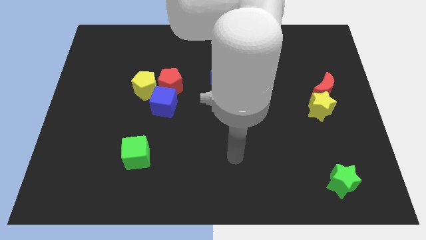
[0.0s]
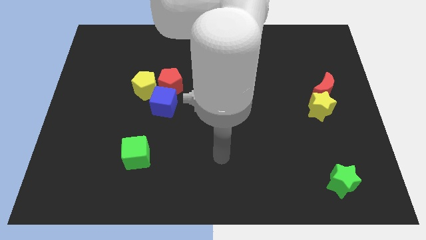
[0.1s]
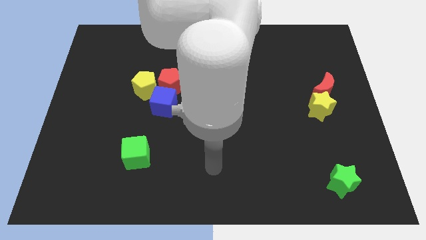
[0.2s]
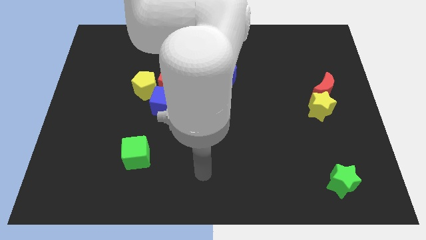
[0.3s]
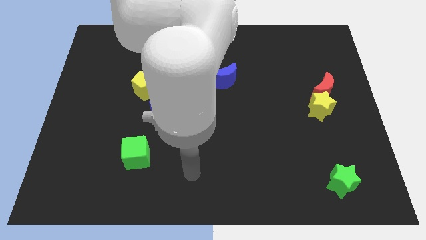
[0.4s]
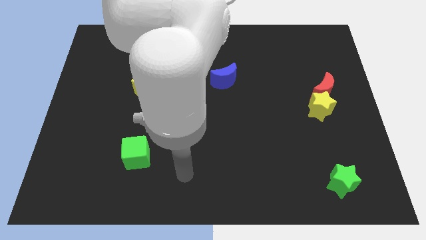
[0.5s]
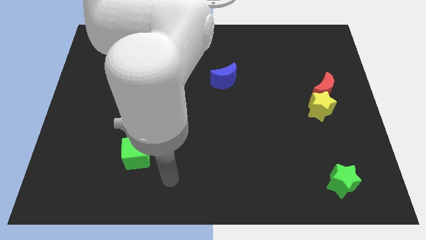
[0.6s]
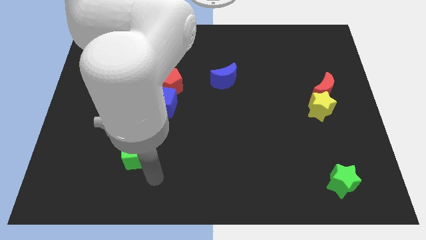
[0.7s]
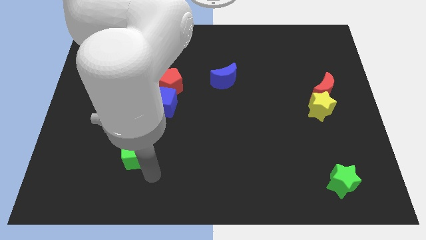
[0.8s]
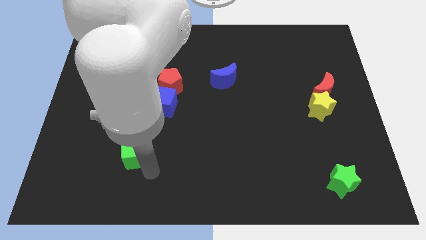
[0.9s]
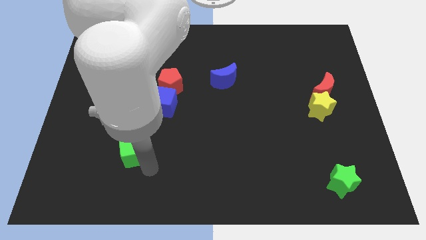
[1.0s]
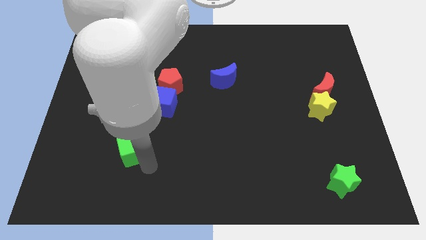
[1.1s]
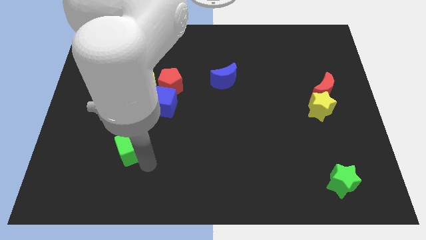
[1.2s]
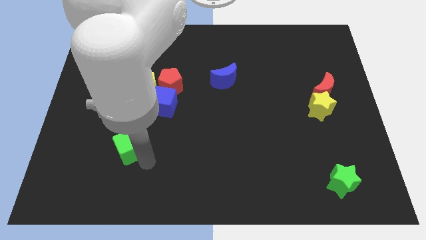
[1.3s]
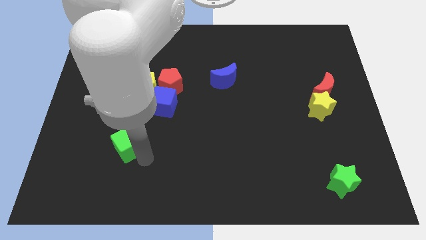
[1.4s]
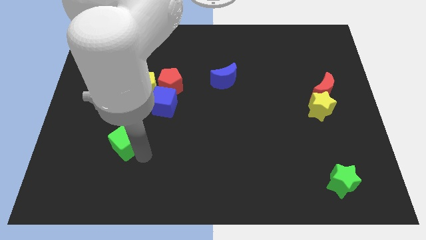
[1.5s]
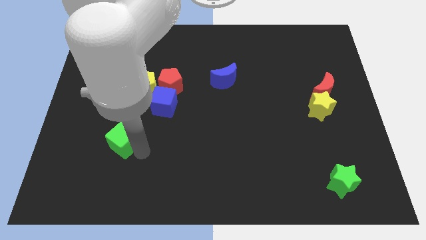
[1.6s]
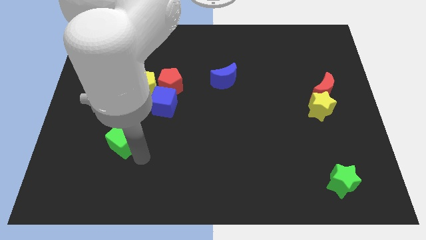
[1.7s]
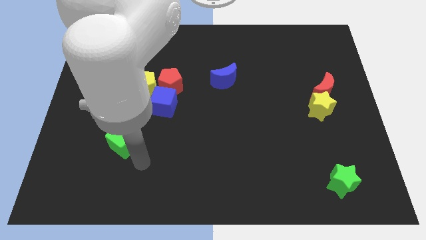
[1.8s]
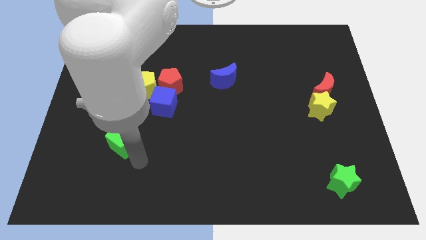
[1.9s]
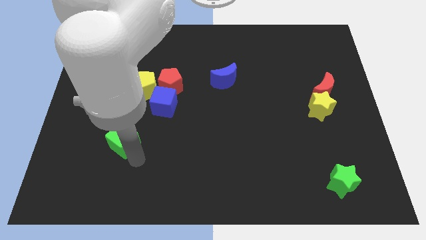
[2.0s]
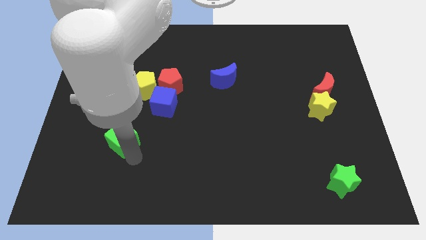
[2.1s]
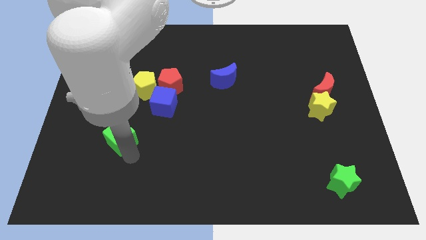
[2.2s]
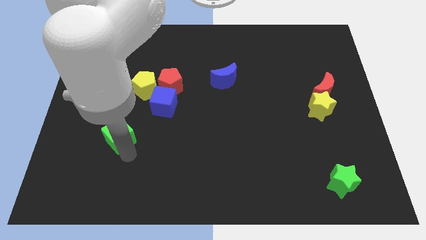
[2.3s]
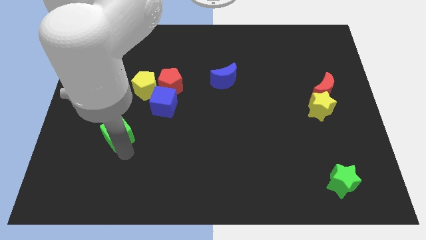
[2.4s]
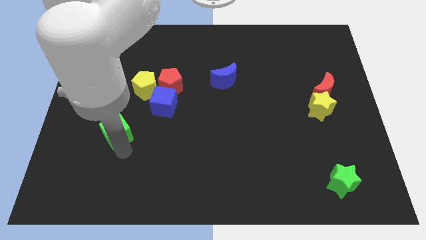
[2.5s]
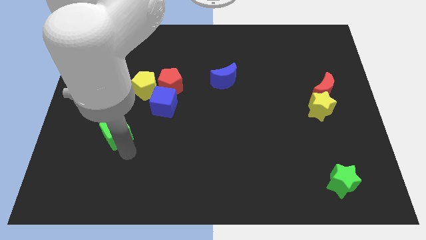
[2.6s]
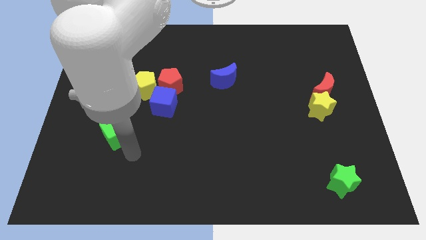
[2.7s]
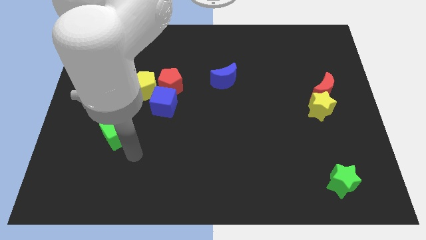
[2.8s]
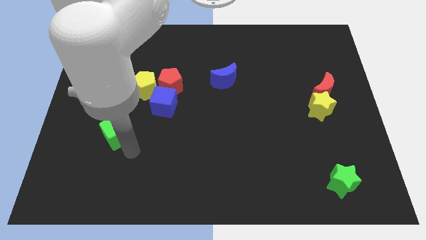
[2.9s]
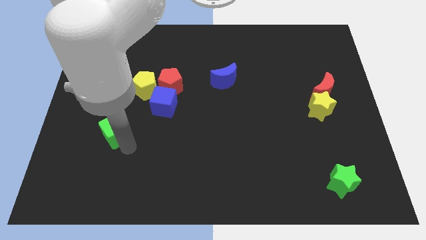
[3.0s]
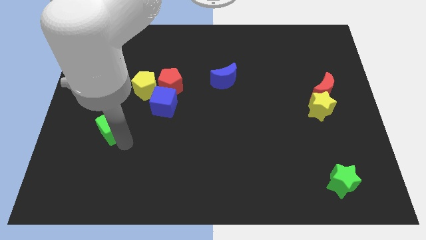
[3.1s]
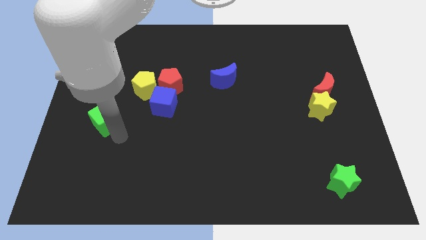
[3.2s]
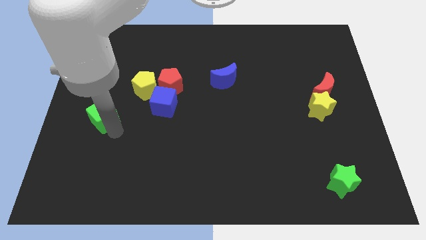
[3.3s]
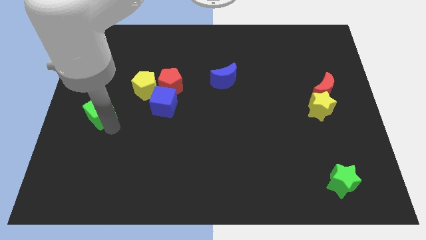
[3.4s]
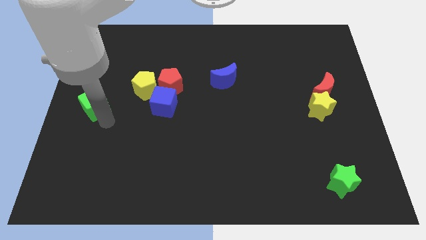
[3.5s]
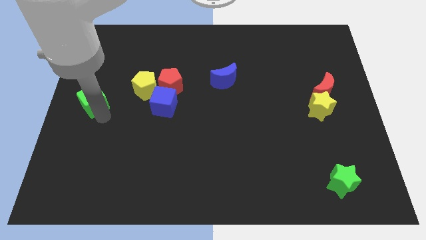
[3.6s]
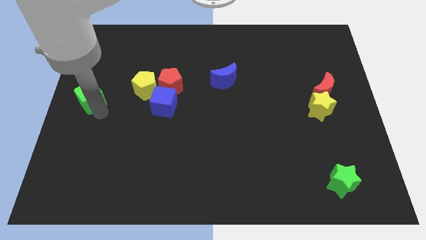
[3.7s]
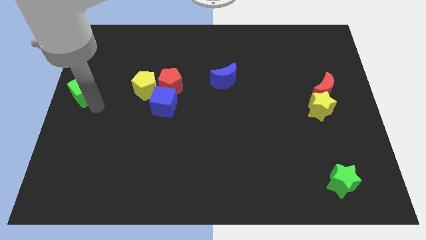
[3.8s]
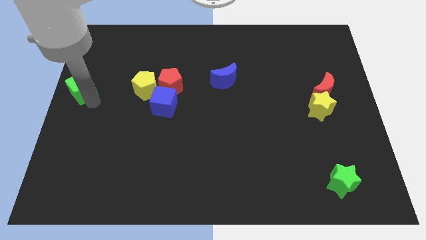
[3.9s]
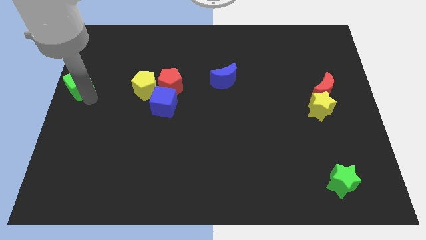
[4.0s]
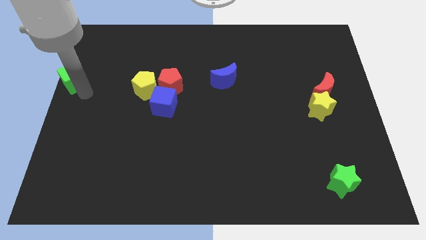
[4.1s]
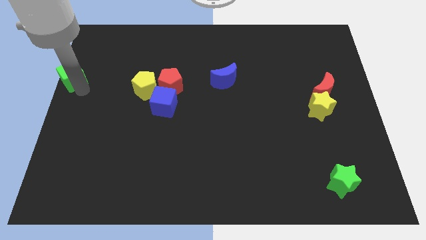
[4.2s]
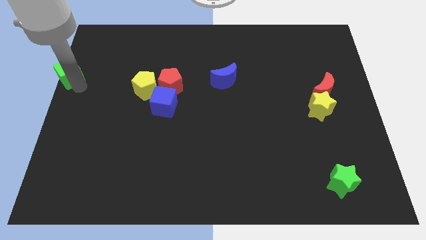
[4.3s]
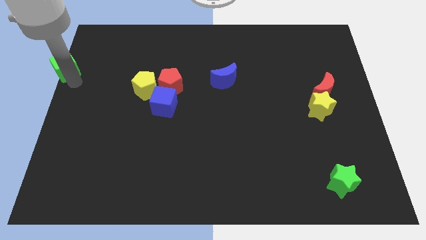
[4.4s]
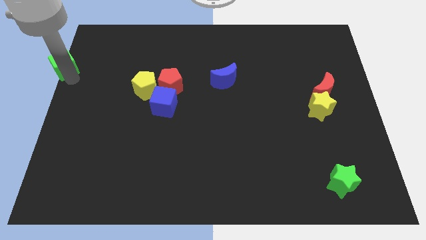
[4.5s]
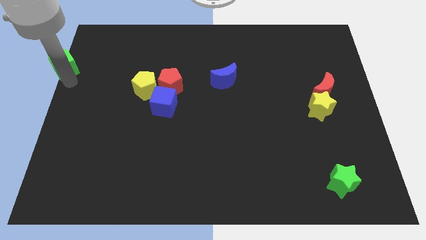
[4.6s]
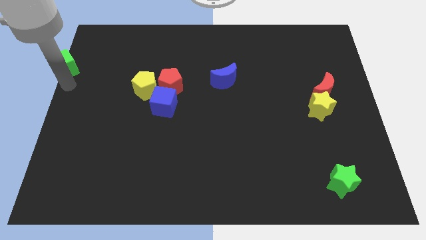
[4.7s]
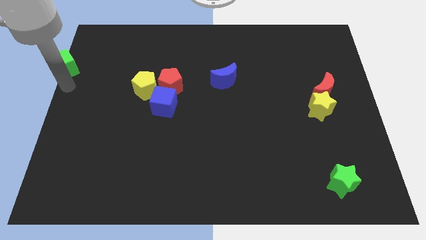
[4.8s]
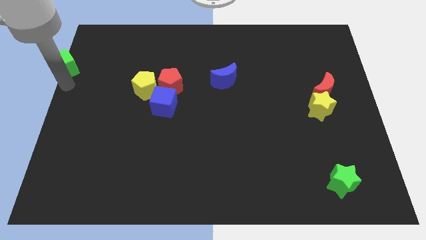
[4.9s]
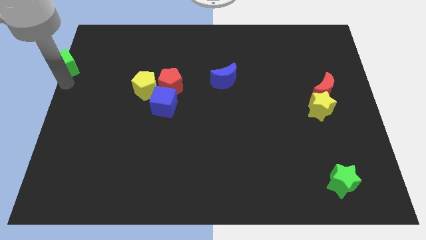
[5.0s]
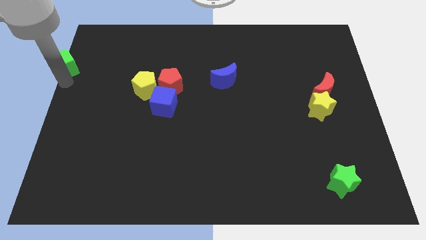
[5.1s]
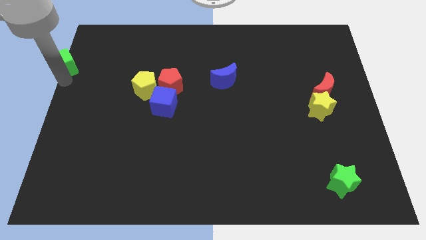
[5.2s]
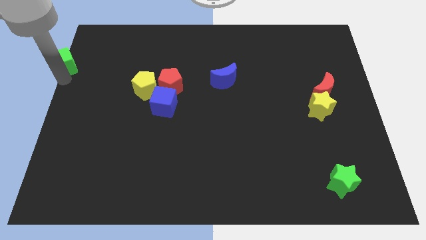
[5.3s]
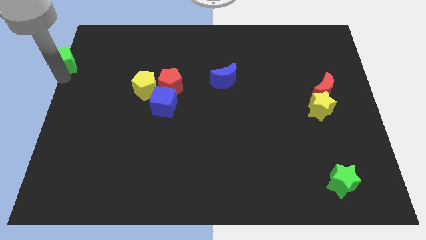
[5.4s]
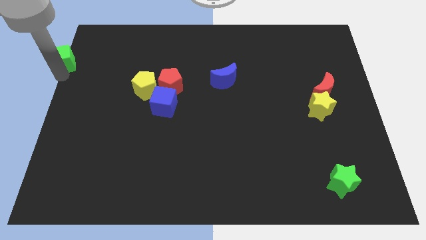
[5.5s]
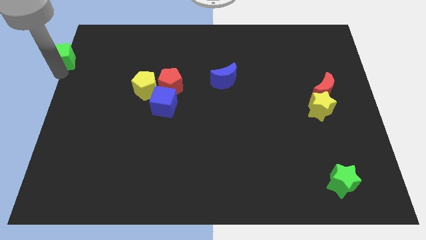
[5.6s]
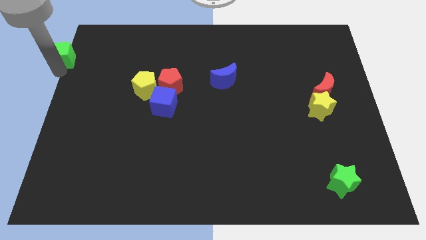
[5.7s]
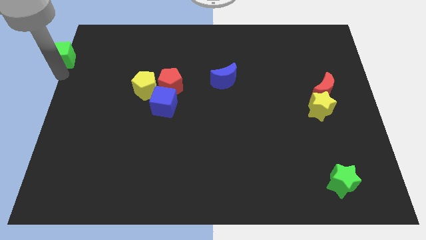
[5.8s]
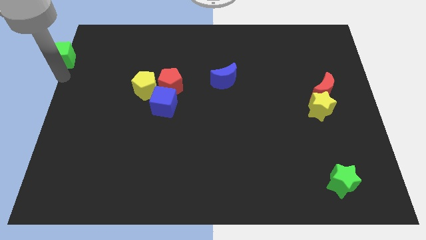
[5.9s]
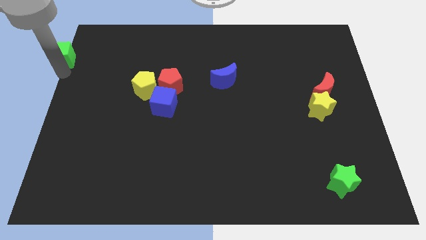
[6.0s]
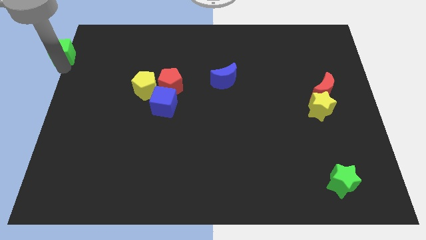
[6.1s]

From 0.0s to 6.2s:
slide the green cube to the top left

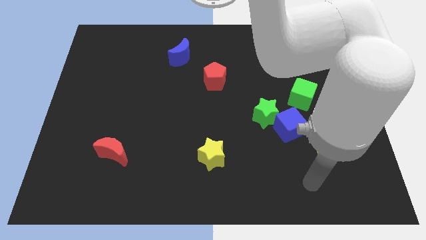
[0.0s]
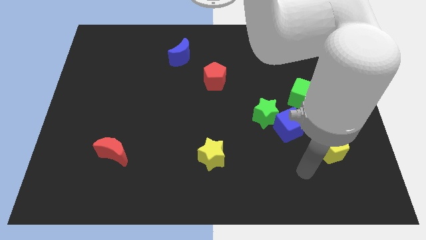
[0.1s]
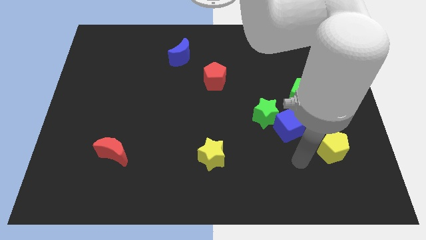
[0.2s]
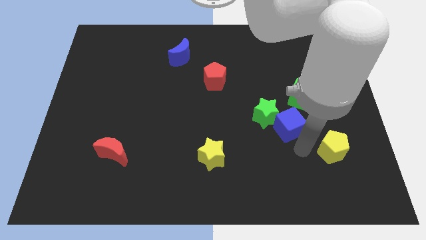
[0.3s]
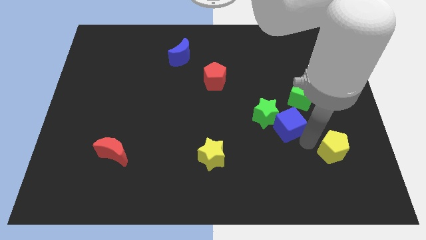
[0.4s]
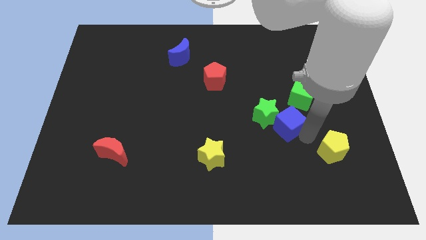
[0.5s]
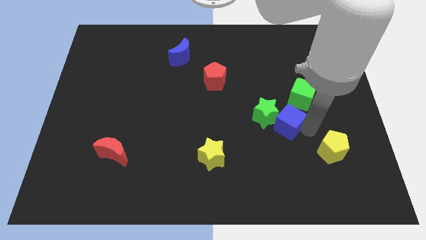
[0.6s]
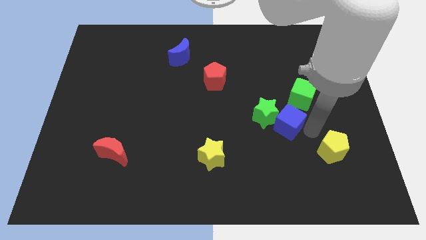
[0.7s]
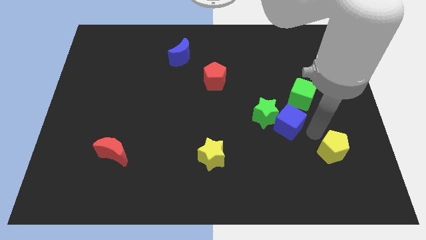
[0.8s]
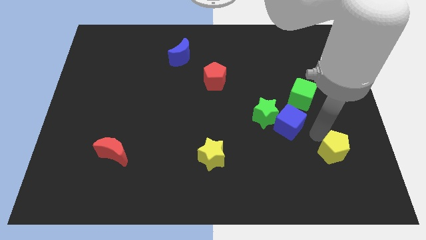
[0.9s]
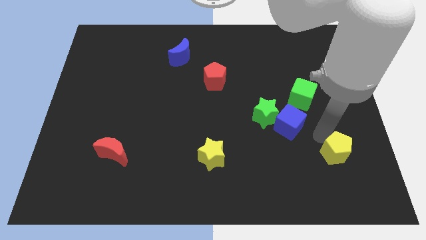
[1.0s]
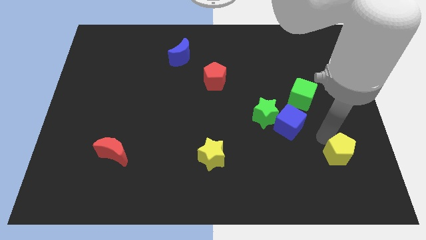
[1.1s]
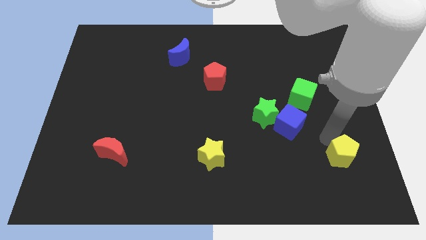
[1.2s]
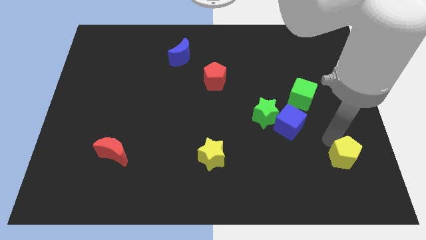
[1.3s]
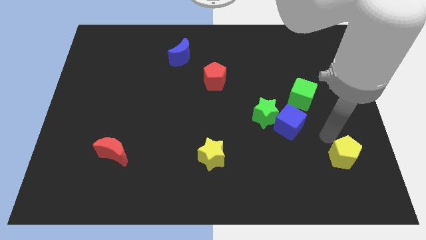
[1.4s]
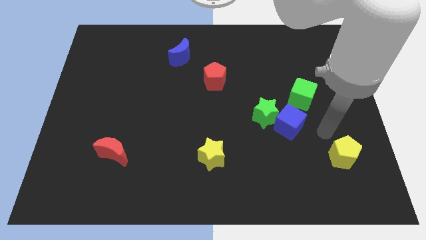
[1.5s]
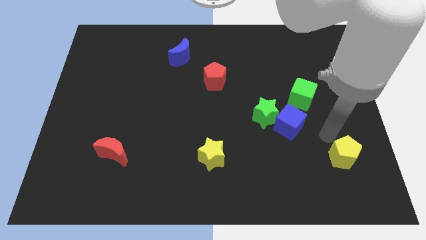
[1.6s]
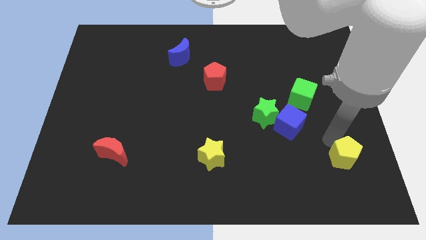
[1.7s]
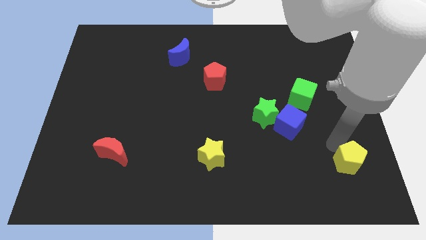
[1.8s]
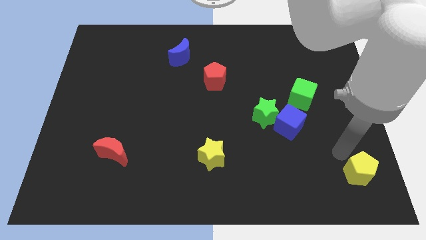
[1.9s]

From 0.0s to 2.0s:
move the yellow pentagon to the bottom right of the board
